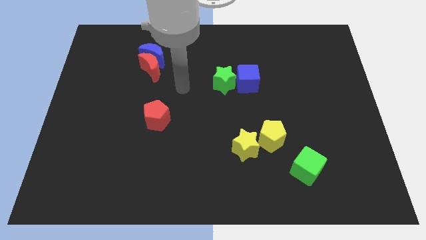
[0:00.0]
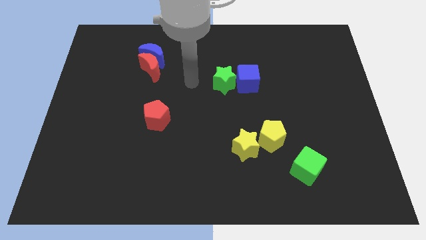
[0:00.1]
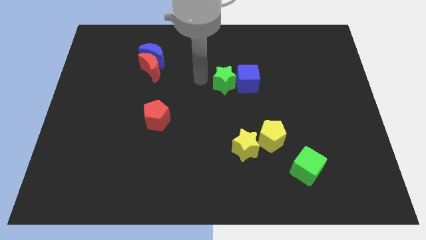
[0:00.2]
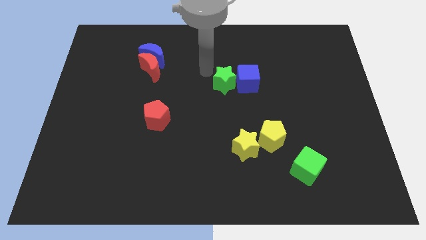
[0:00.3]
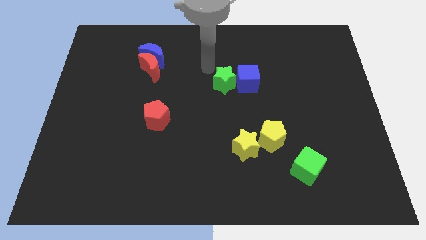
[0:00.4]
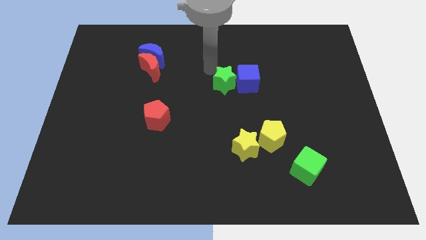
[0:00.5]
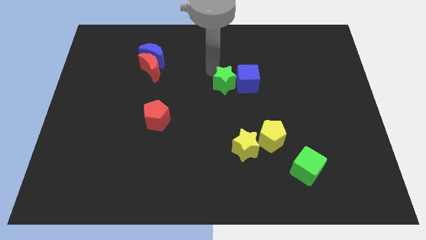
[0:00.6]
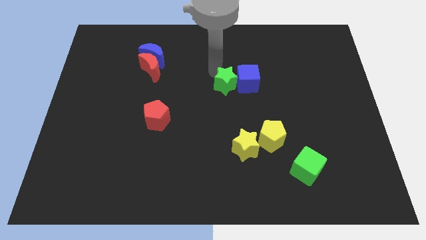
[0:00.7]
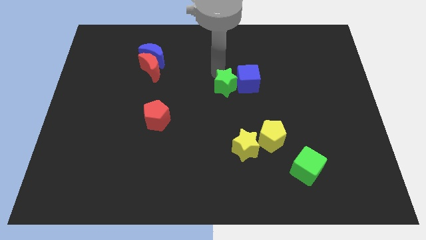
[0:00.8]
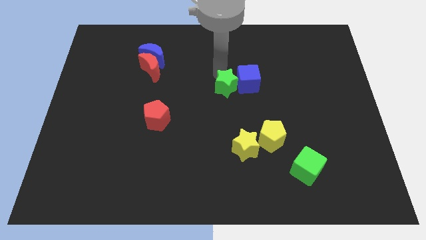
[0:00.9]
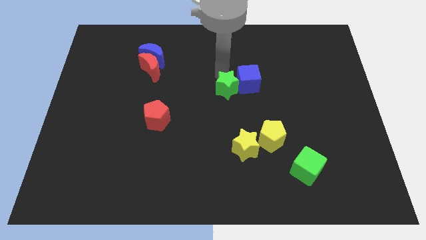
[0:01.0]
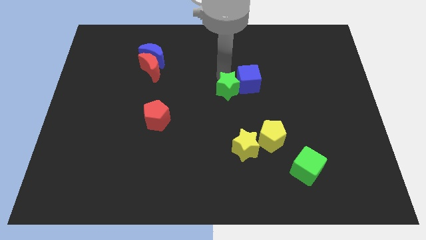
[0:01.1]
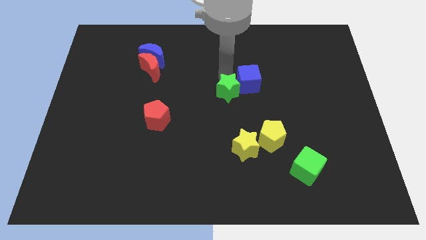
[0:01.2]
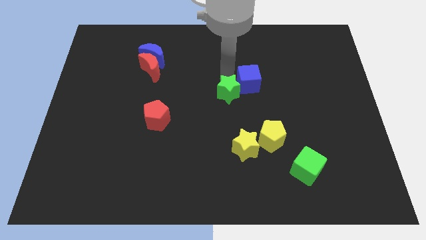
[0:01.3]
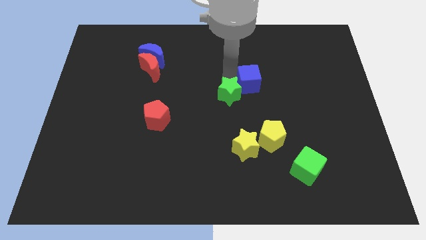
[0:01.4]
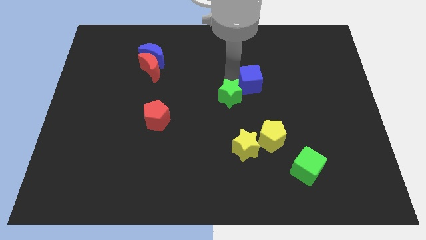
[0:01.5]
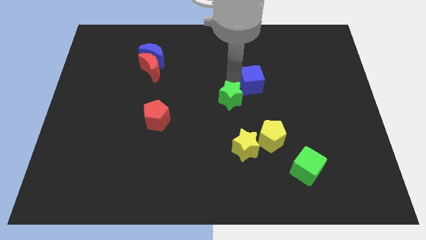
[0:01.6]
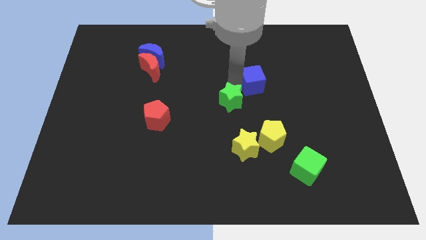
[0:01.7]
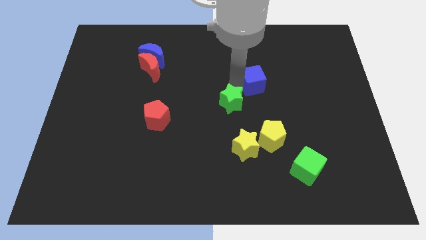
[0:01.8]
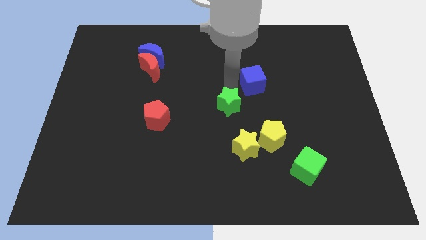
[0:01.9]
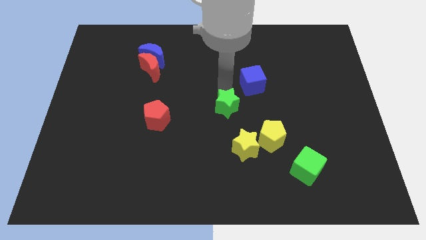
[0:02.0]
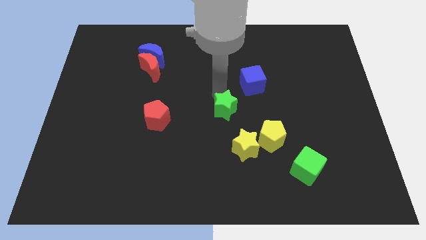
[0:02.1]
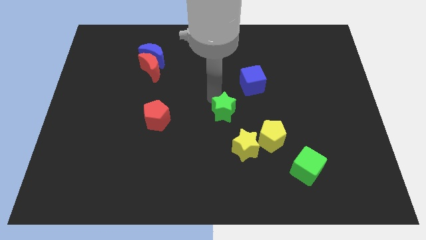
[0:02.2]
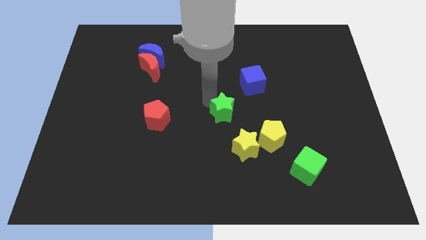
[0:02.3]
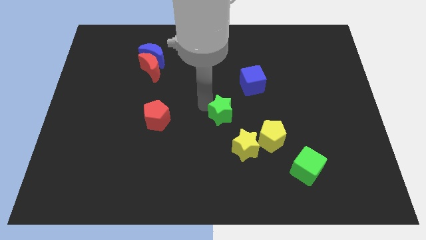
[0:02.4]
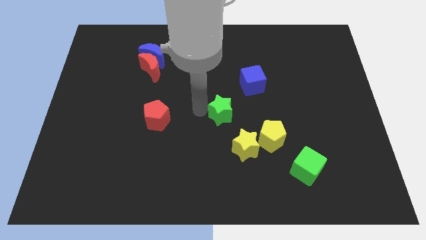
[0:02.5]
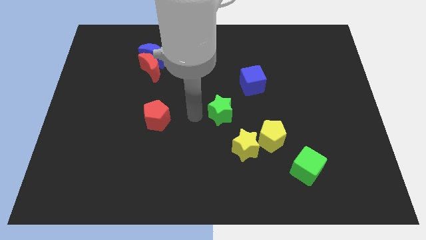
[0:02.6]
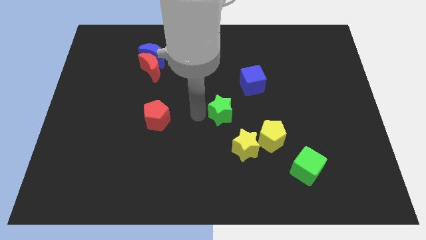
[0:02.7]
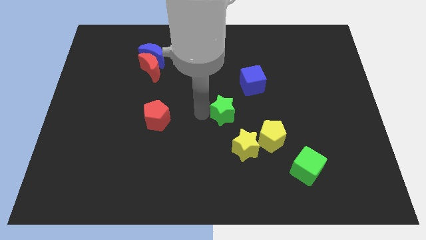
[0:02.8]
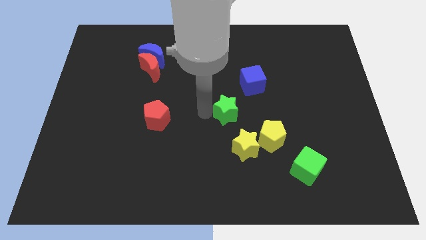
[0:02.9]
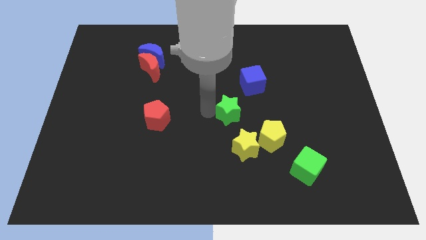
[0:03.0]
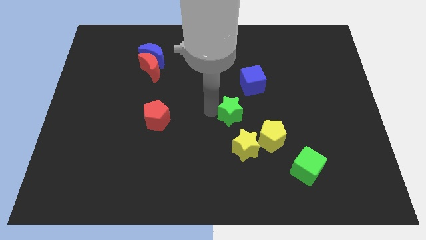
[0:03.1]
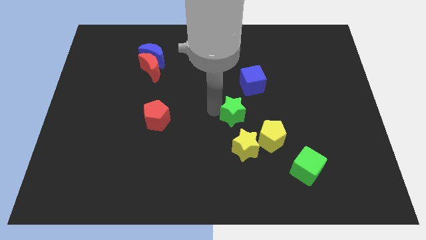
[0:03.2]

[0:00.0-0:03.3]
move the green star a little bit down and then to the right

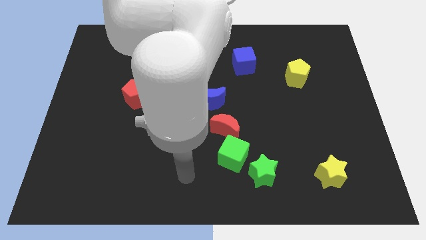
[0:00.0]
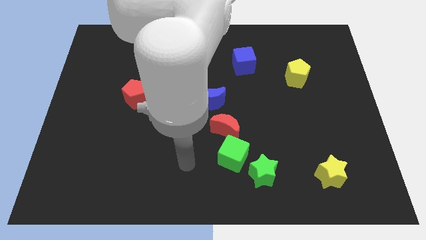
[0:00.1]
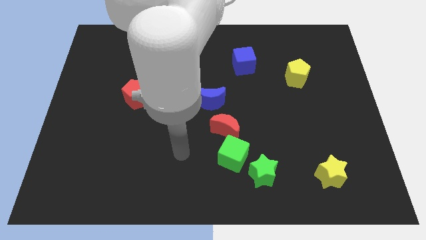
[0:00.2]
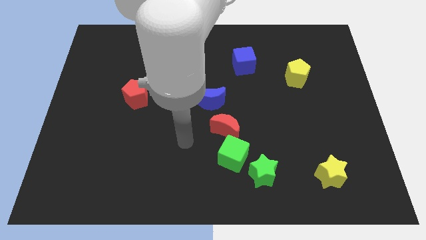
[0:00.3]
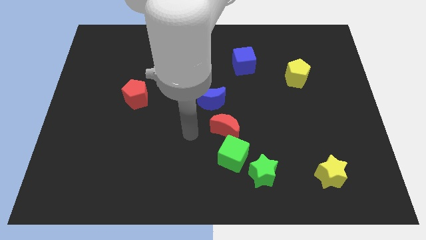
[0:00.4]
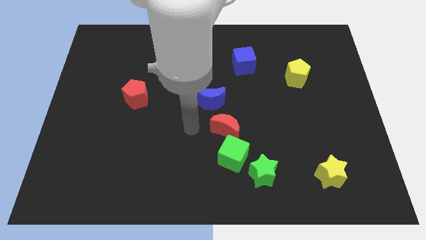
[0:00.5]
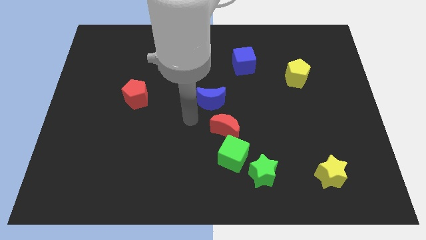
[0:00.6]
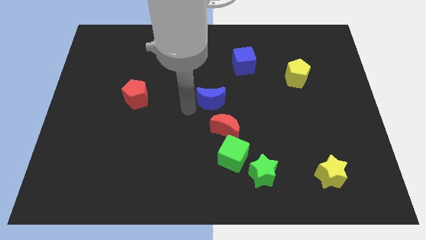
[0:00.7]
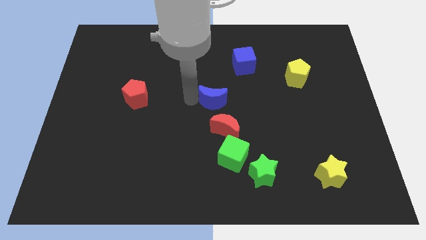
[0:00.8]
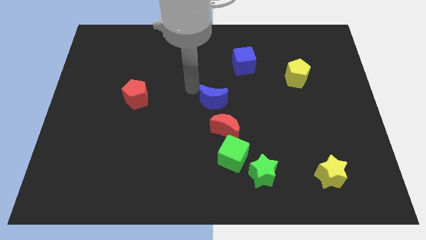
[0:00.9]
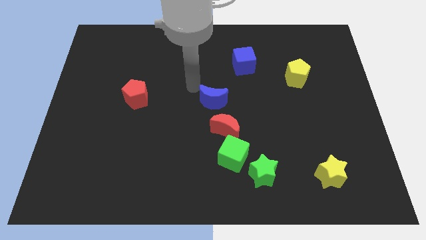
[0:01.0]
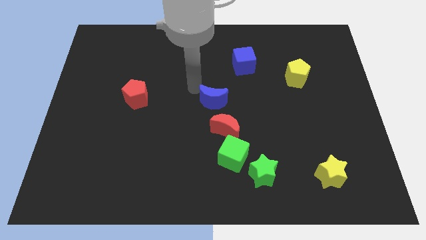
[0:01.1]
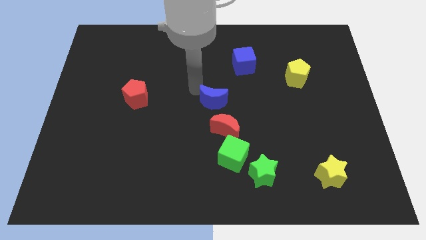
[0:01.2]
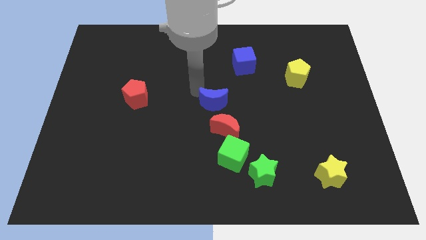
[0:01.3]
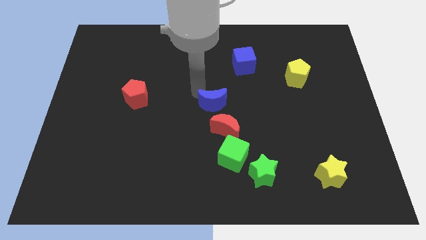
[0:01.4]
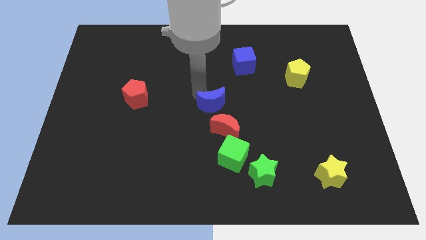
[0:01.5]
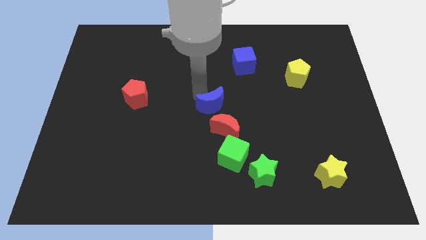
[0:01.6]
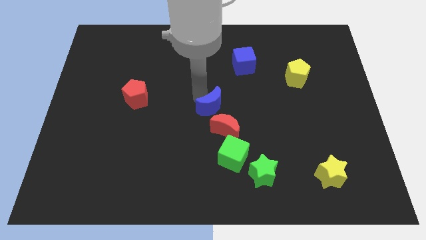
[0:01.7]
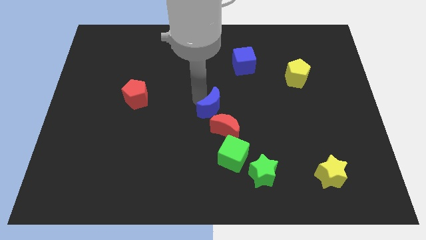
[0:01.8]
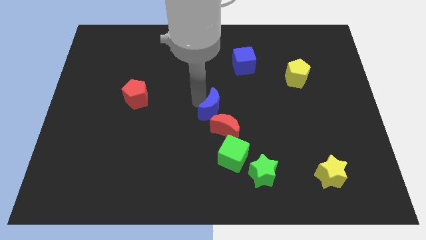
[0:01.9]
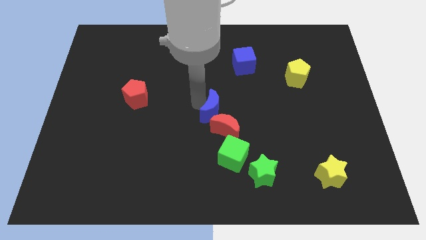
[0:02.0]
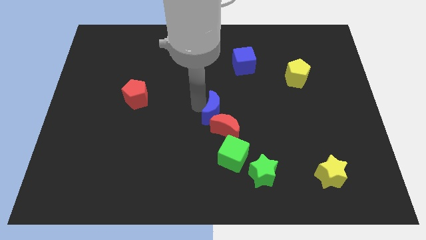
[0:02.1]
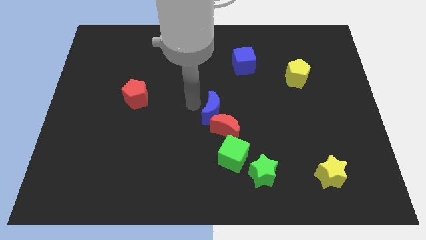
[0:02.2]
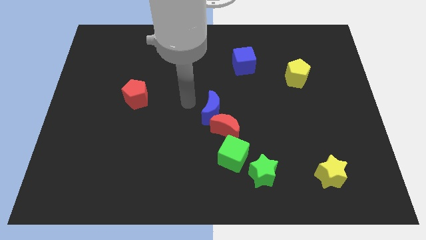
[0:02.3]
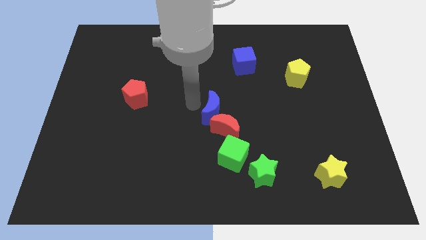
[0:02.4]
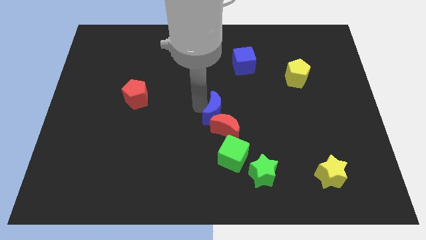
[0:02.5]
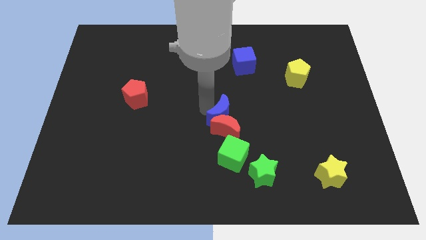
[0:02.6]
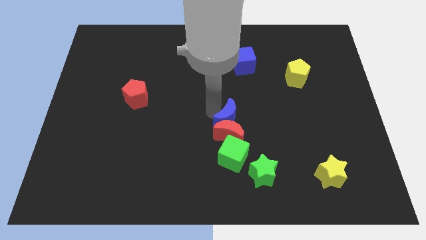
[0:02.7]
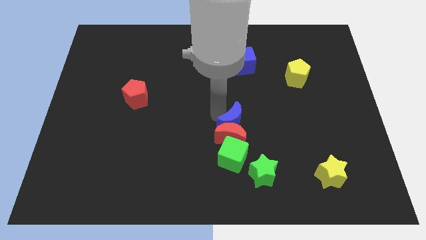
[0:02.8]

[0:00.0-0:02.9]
slide the blue moon a little diagonally down and to the right

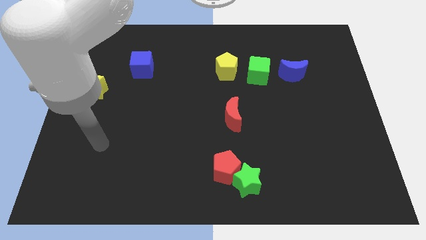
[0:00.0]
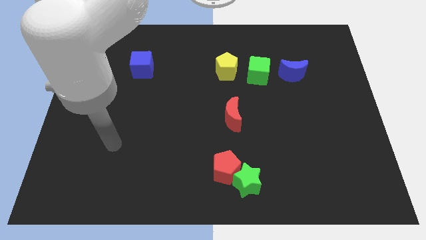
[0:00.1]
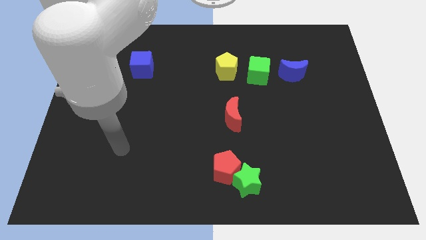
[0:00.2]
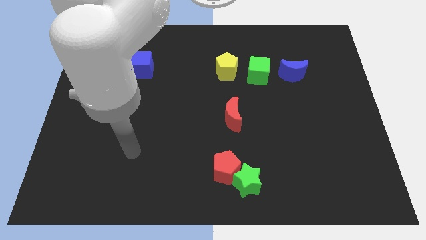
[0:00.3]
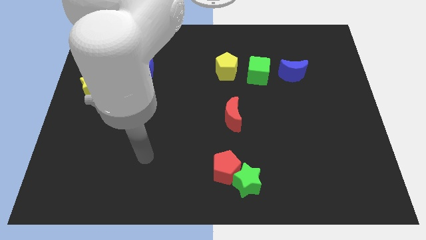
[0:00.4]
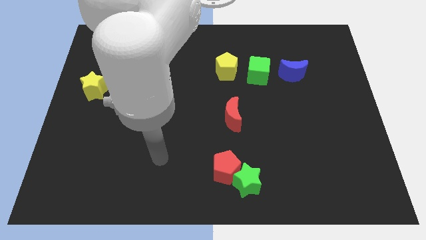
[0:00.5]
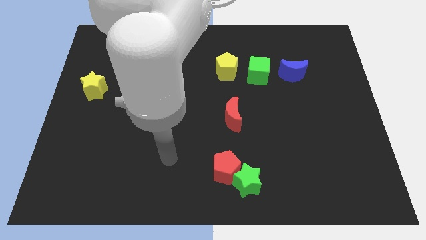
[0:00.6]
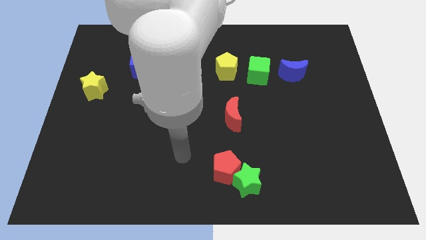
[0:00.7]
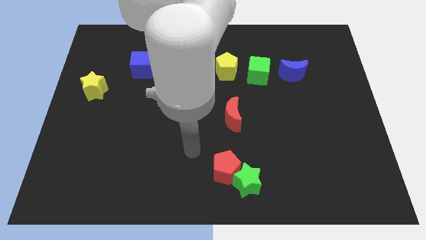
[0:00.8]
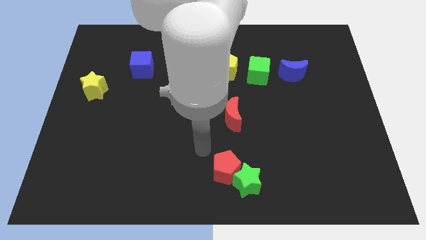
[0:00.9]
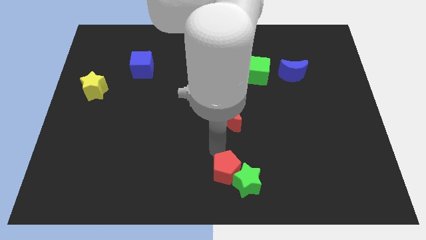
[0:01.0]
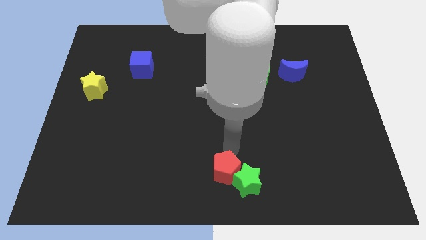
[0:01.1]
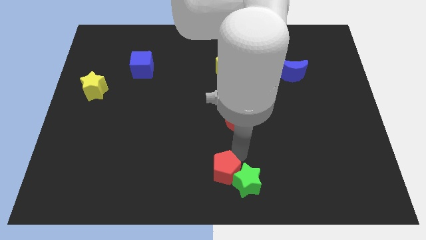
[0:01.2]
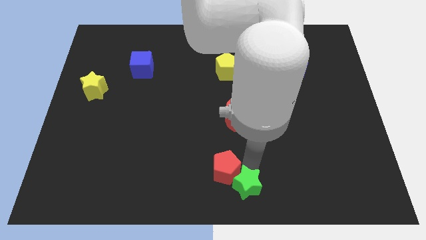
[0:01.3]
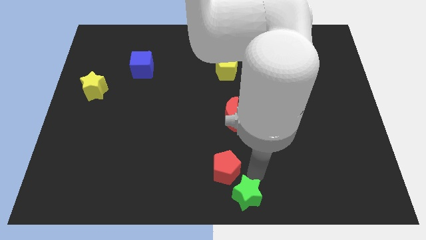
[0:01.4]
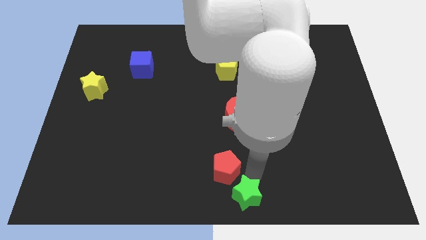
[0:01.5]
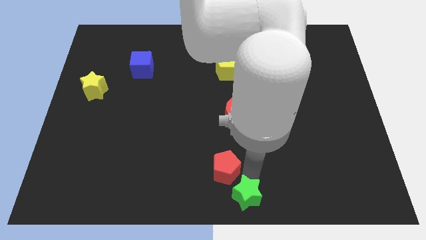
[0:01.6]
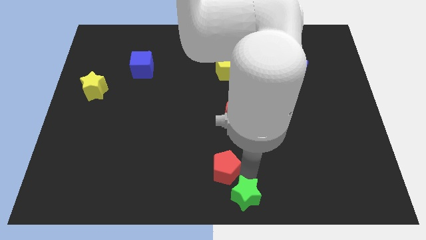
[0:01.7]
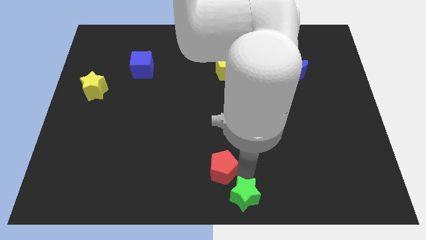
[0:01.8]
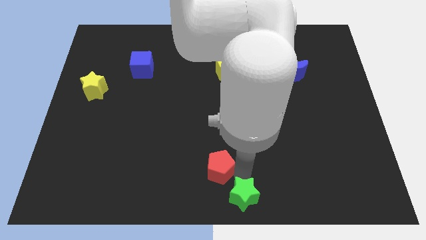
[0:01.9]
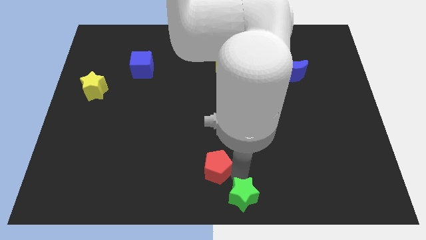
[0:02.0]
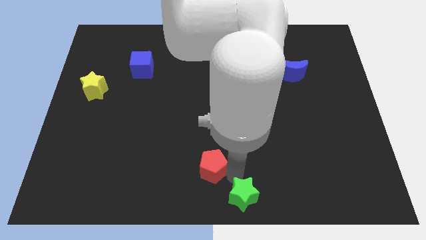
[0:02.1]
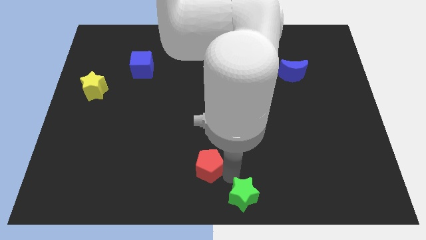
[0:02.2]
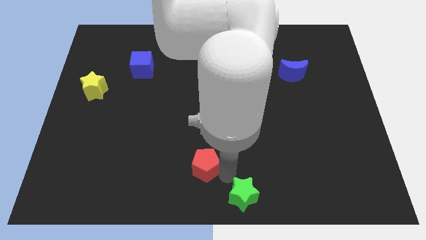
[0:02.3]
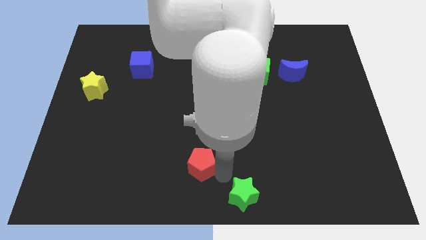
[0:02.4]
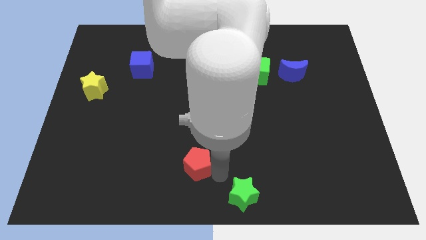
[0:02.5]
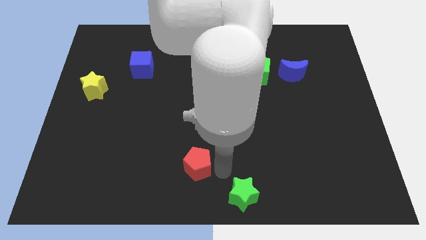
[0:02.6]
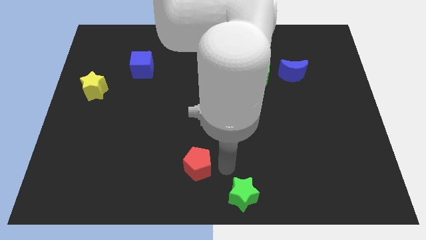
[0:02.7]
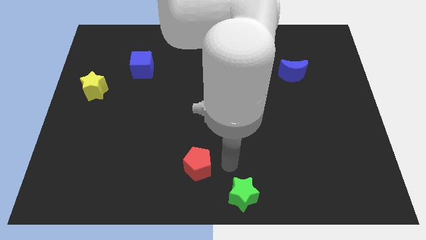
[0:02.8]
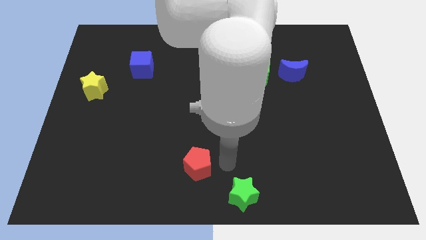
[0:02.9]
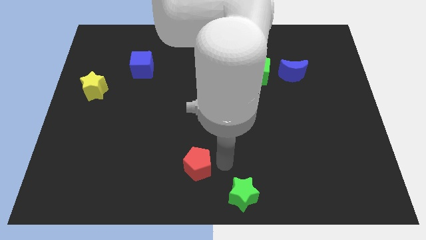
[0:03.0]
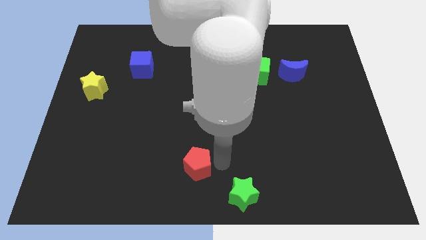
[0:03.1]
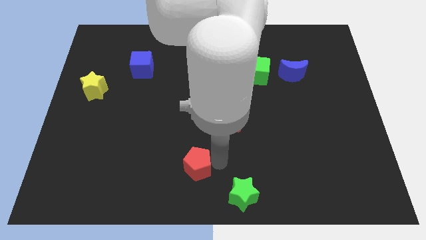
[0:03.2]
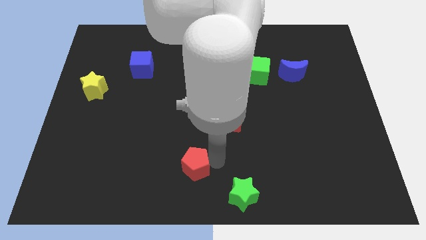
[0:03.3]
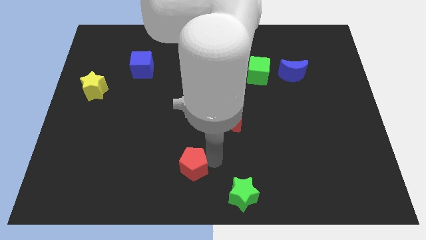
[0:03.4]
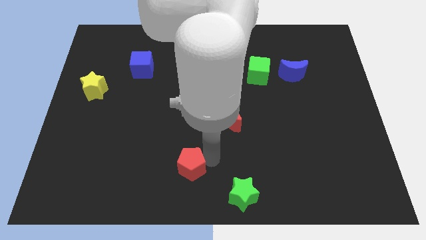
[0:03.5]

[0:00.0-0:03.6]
slide the red pentagon a bit to the left
